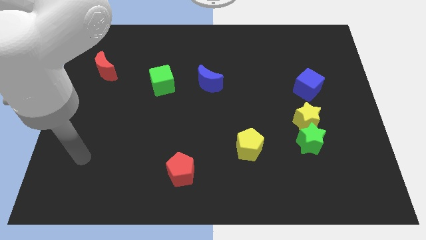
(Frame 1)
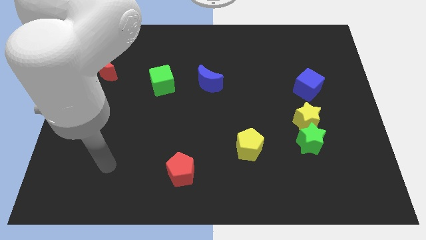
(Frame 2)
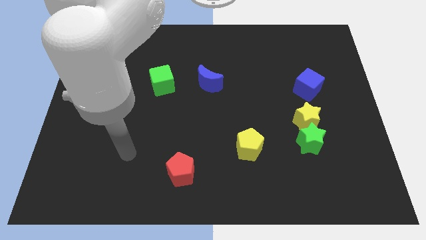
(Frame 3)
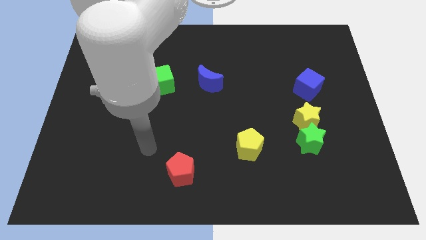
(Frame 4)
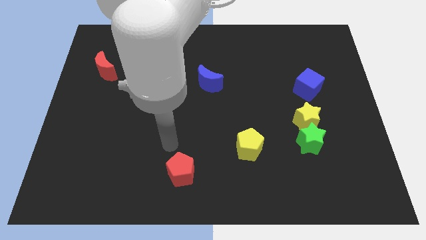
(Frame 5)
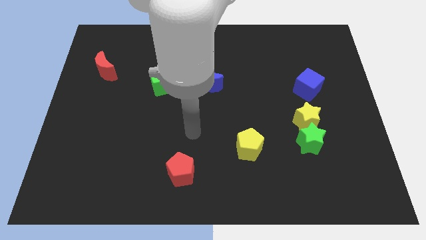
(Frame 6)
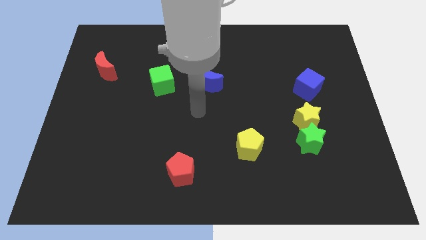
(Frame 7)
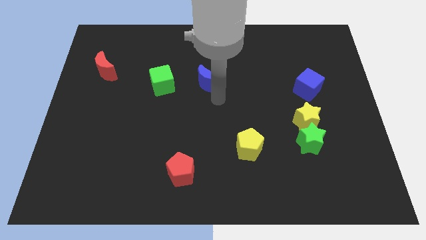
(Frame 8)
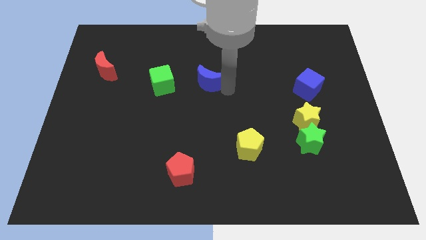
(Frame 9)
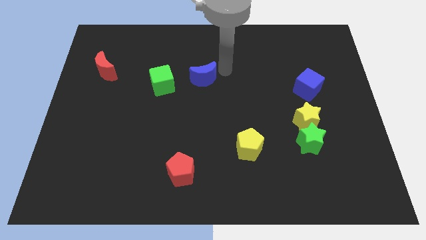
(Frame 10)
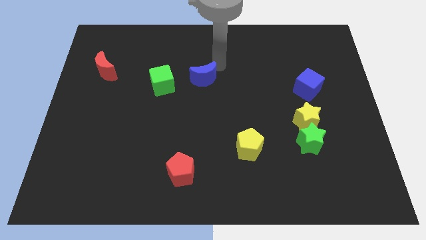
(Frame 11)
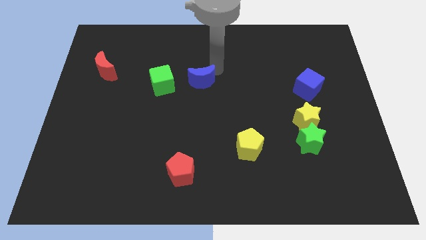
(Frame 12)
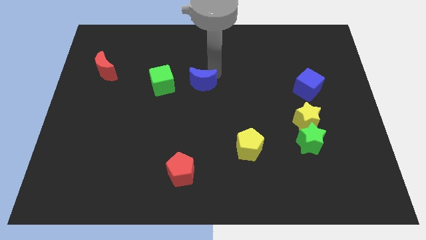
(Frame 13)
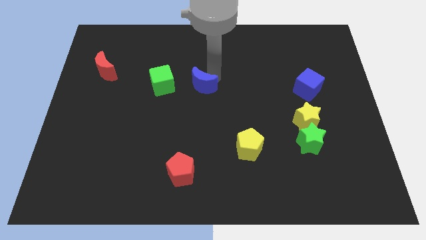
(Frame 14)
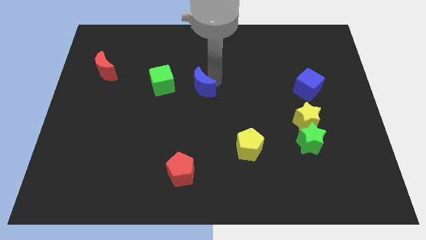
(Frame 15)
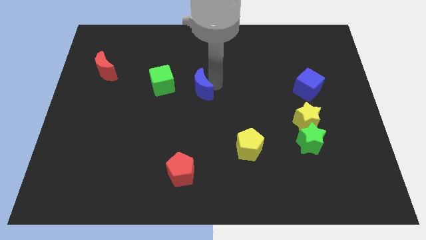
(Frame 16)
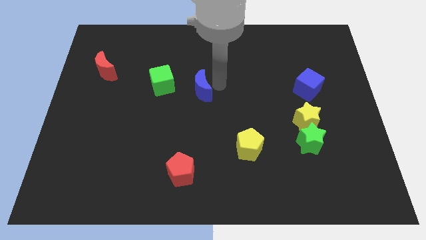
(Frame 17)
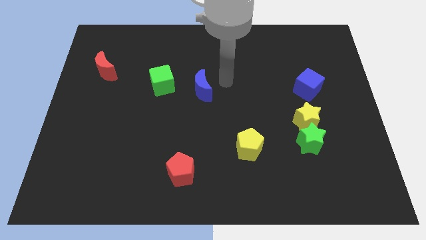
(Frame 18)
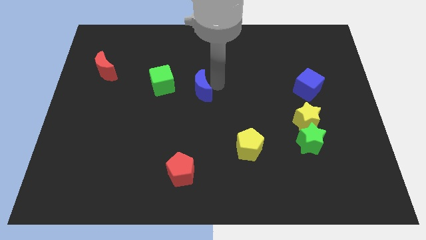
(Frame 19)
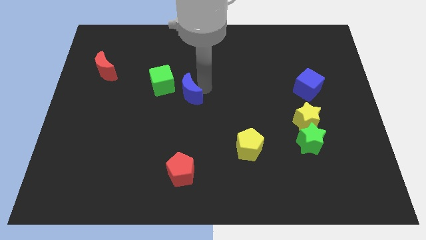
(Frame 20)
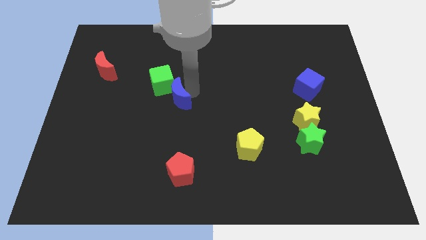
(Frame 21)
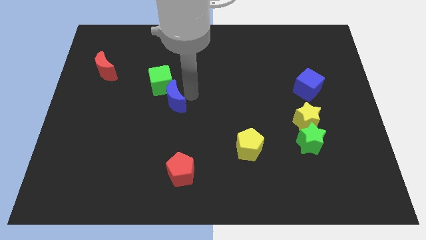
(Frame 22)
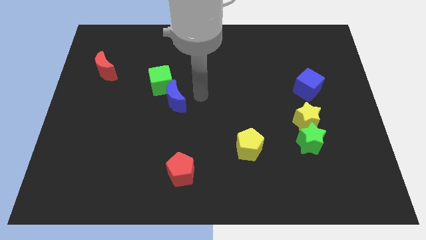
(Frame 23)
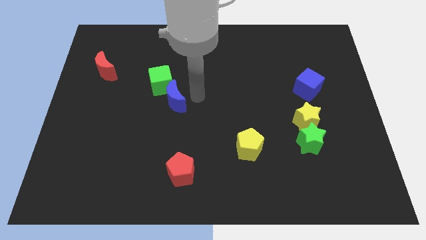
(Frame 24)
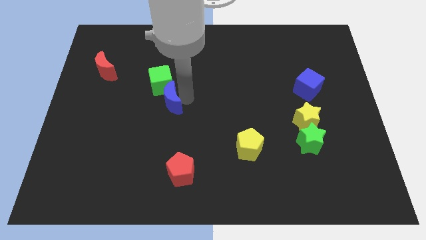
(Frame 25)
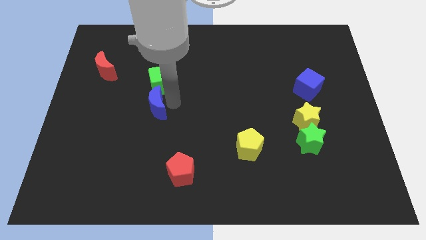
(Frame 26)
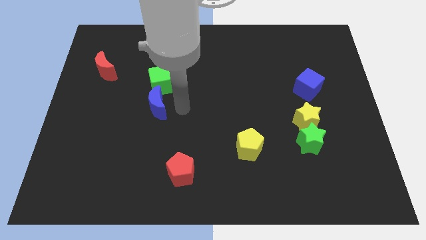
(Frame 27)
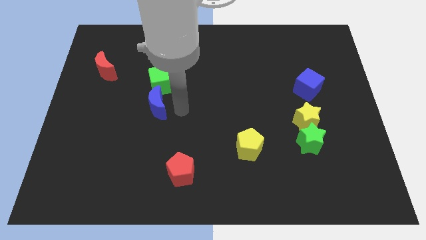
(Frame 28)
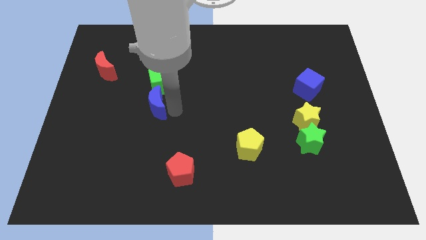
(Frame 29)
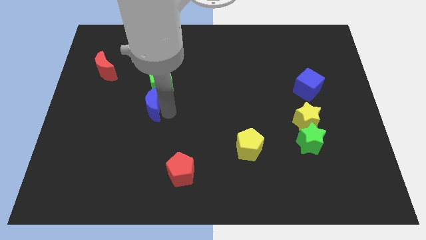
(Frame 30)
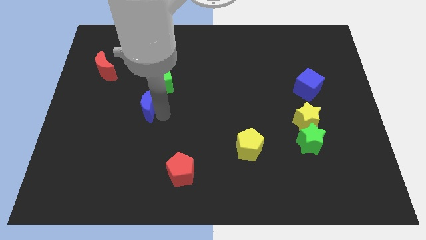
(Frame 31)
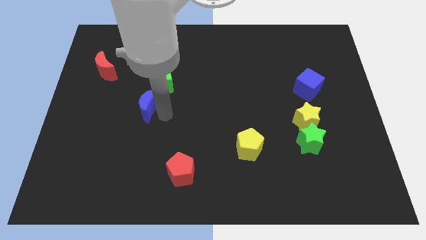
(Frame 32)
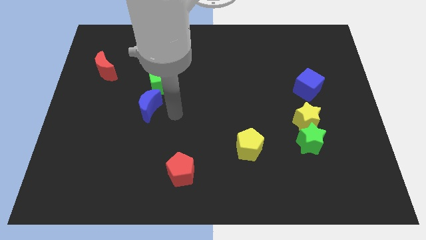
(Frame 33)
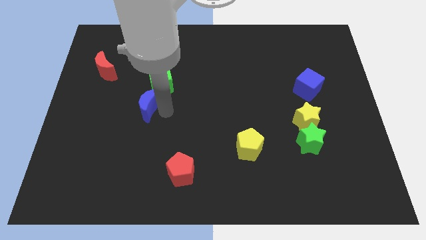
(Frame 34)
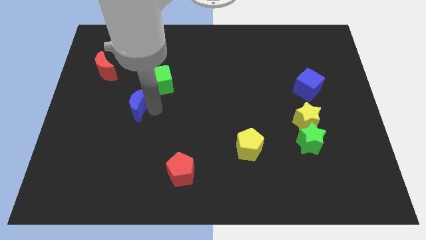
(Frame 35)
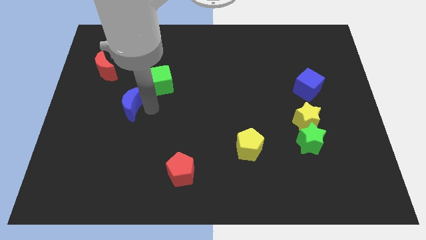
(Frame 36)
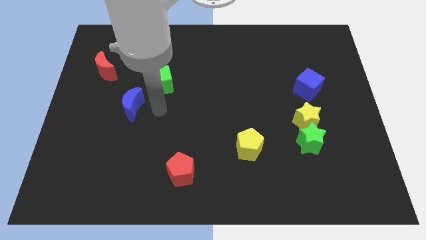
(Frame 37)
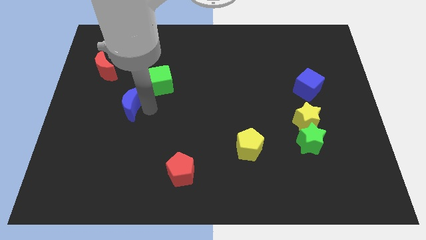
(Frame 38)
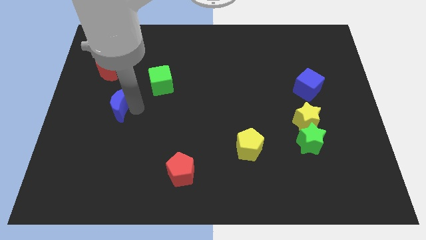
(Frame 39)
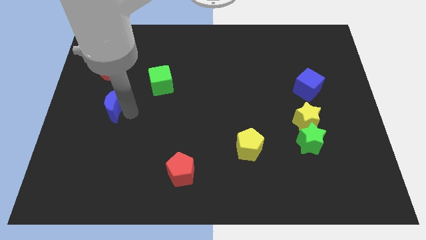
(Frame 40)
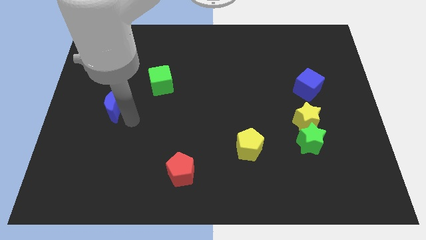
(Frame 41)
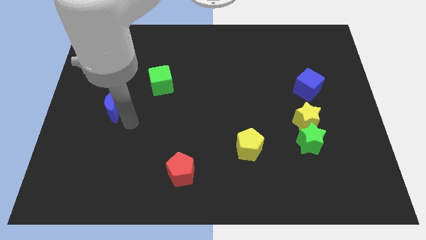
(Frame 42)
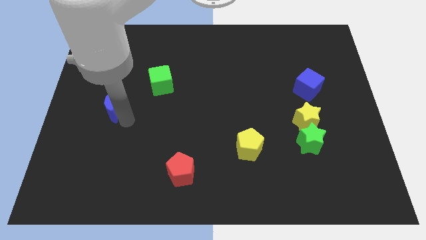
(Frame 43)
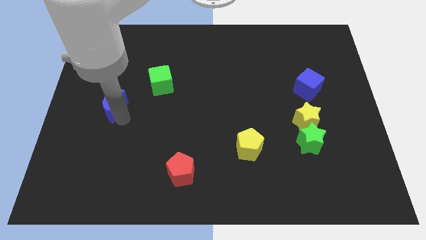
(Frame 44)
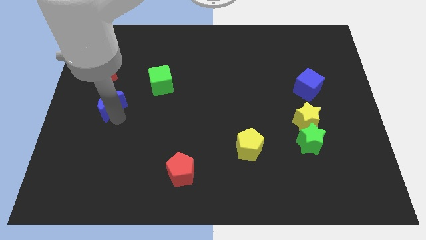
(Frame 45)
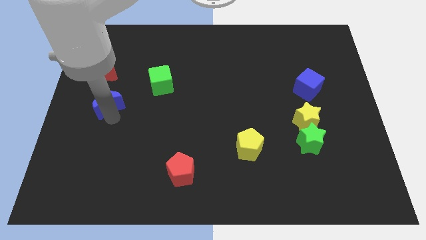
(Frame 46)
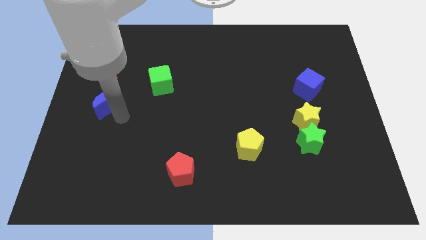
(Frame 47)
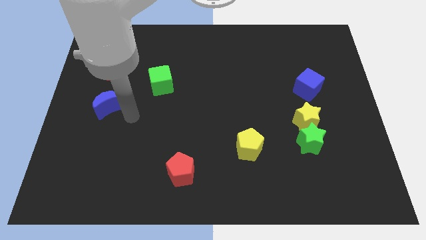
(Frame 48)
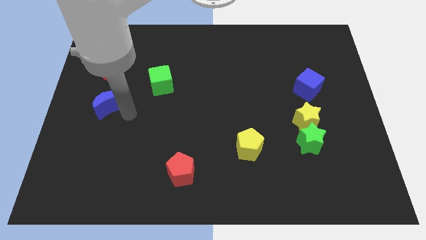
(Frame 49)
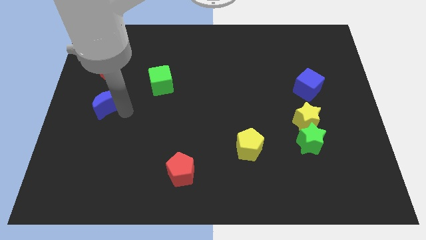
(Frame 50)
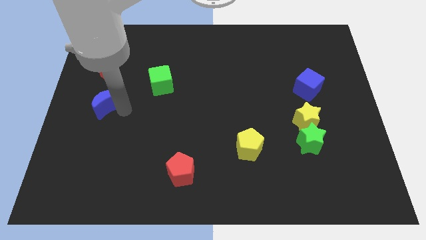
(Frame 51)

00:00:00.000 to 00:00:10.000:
slide the blue moon to the left side of the board

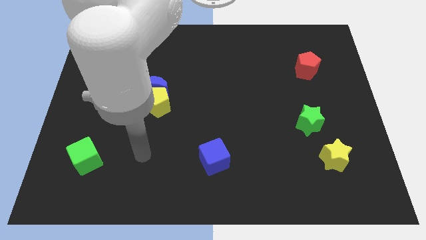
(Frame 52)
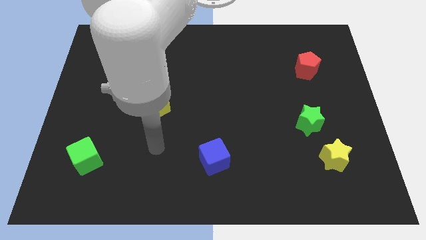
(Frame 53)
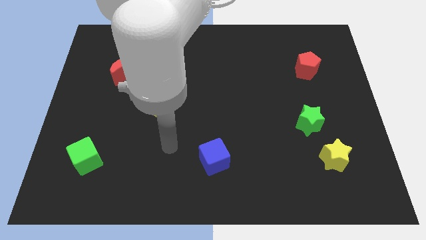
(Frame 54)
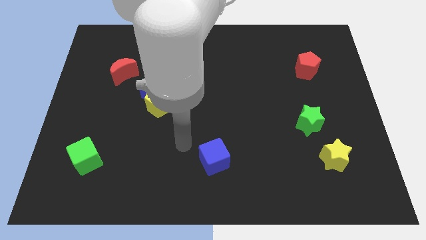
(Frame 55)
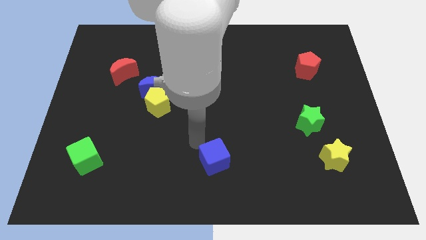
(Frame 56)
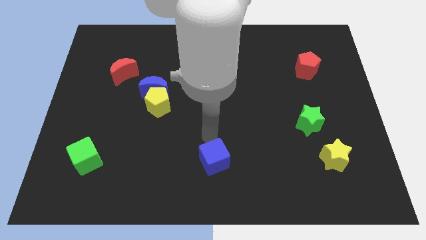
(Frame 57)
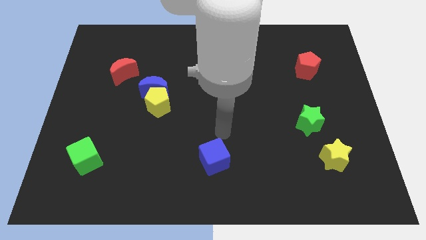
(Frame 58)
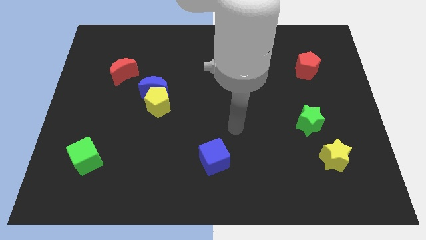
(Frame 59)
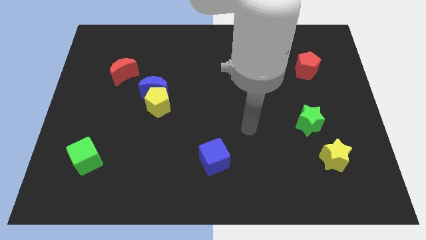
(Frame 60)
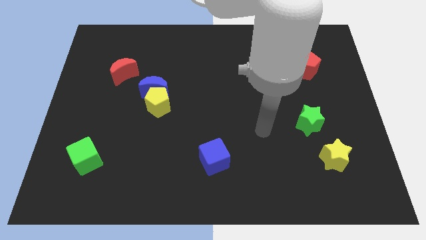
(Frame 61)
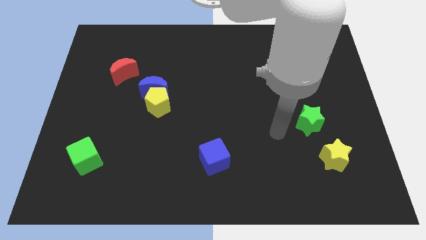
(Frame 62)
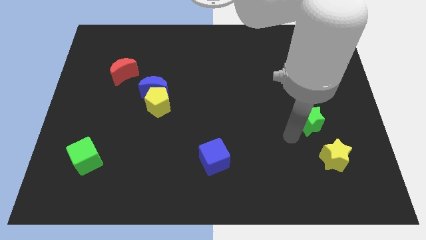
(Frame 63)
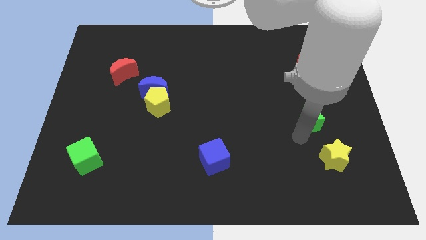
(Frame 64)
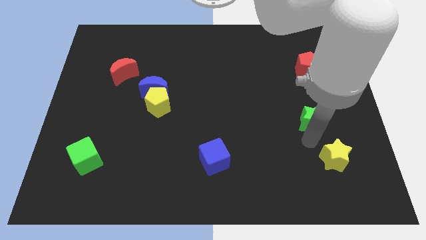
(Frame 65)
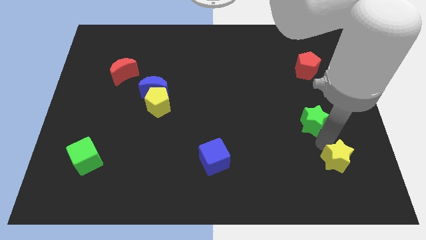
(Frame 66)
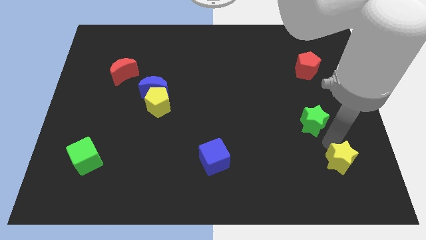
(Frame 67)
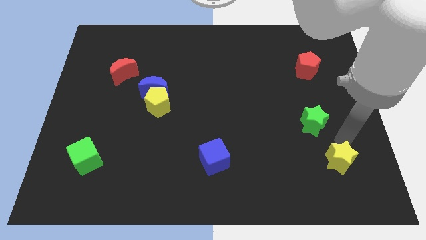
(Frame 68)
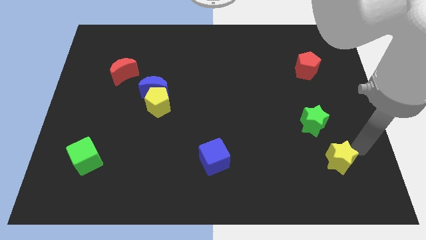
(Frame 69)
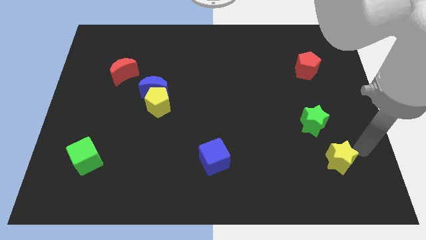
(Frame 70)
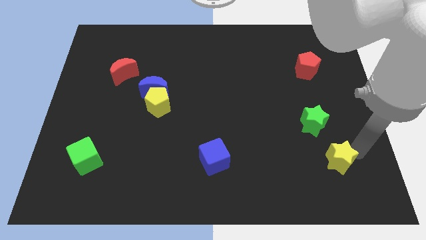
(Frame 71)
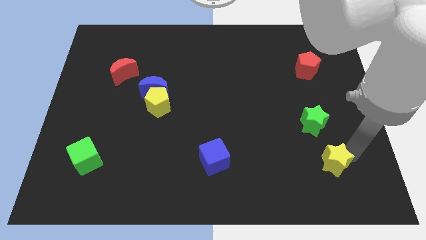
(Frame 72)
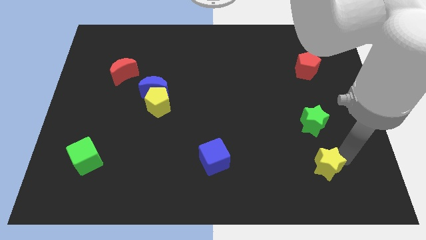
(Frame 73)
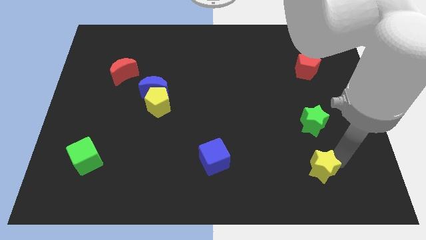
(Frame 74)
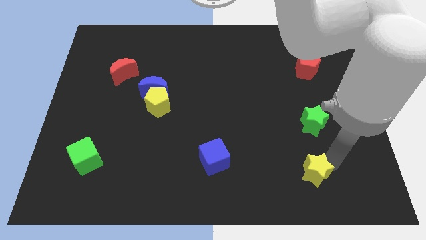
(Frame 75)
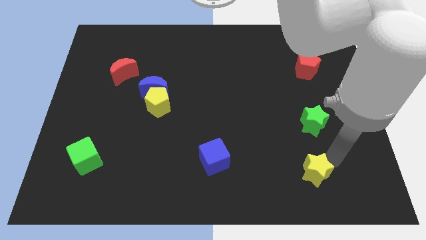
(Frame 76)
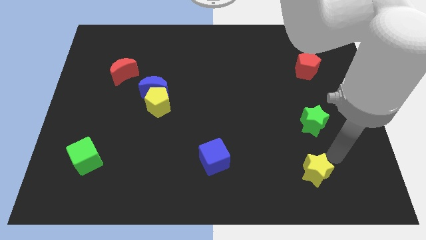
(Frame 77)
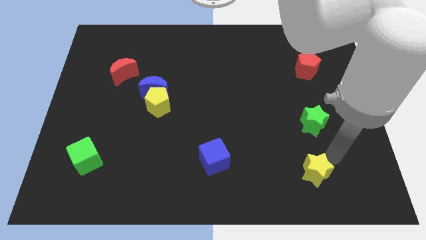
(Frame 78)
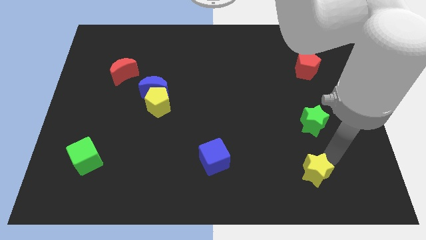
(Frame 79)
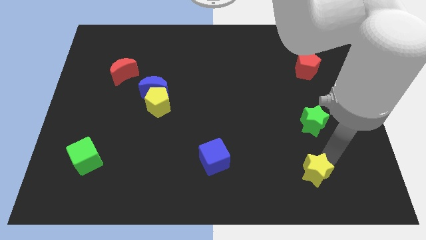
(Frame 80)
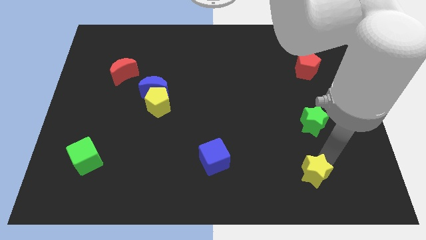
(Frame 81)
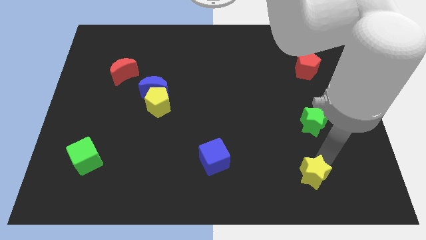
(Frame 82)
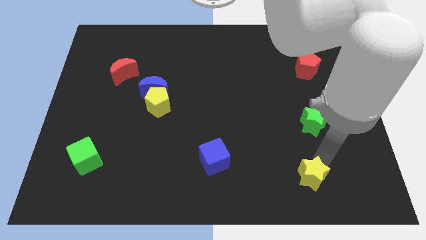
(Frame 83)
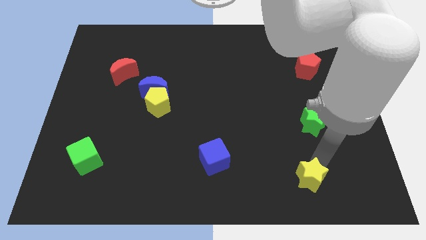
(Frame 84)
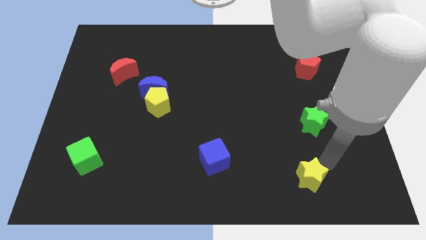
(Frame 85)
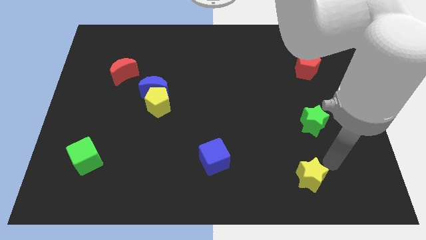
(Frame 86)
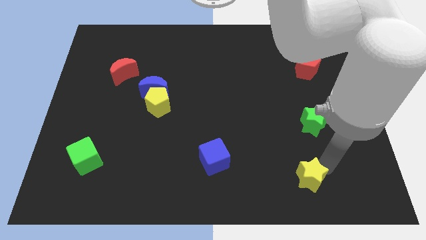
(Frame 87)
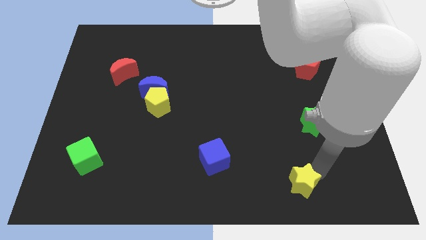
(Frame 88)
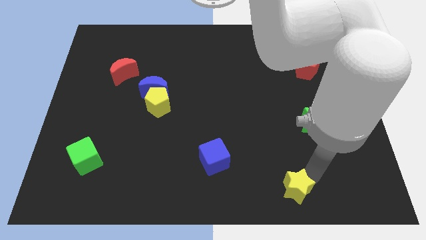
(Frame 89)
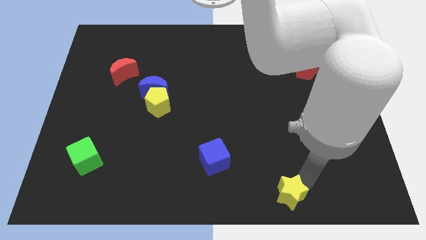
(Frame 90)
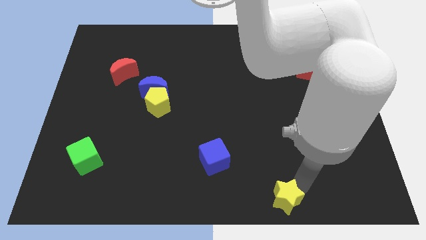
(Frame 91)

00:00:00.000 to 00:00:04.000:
move the yellow star to the bottom side
